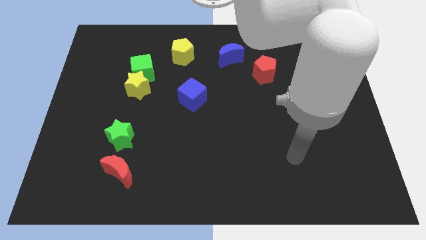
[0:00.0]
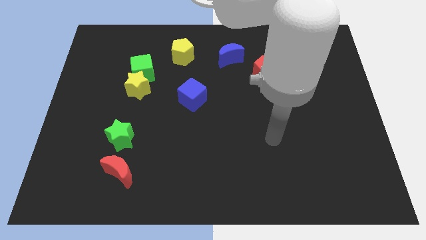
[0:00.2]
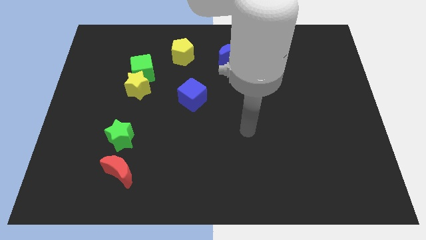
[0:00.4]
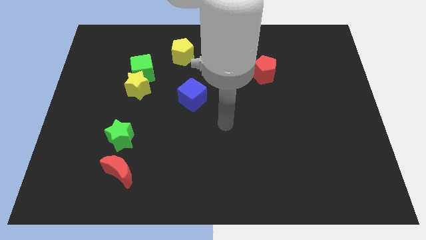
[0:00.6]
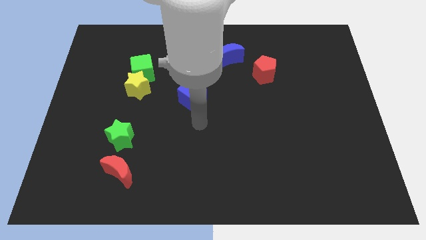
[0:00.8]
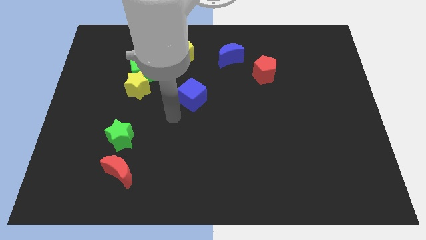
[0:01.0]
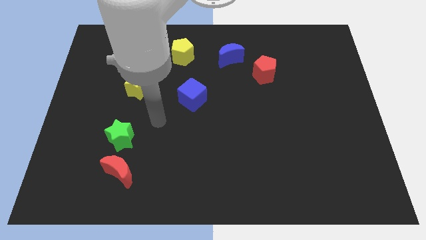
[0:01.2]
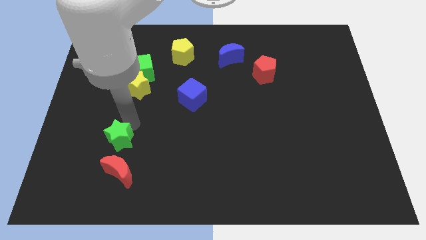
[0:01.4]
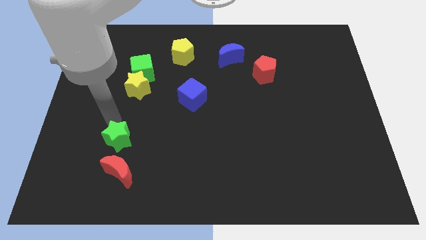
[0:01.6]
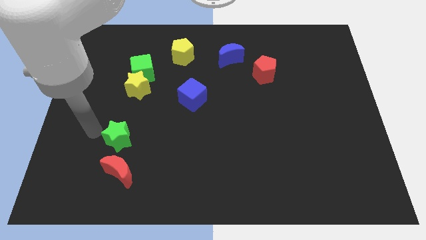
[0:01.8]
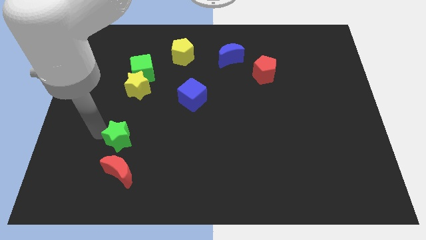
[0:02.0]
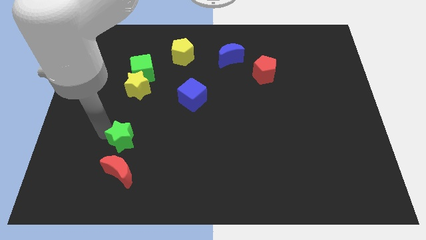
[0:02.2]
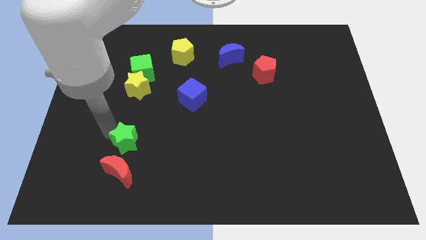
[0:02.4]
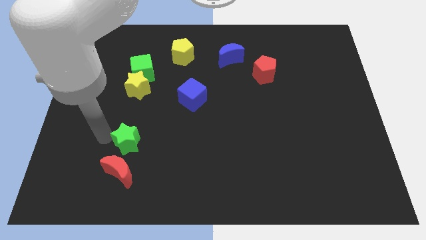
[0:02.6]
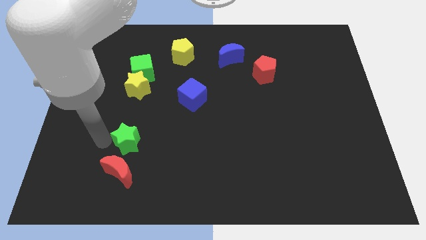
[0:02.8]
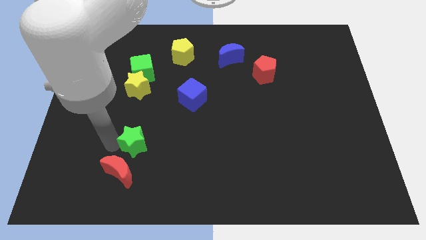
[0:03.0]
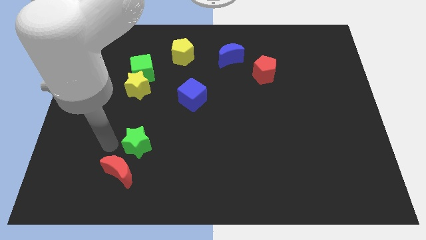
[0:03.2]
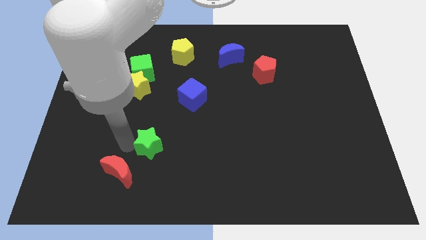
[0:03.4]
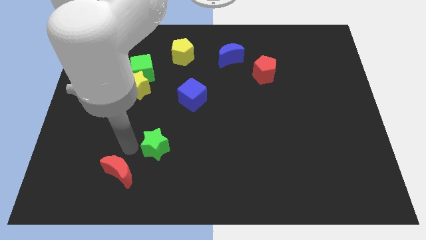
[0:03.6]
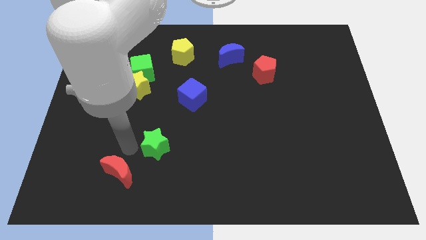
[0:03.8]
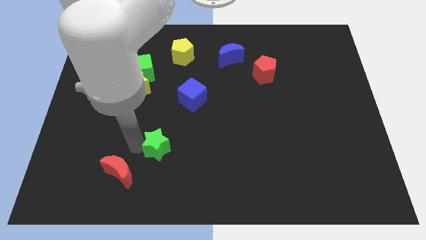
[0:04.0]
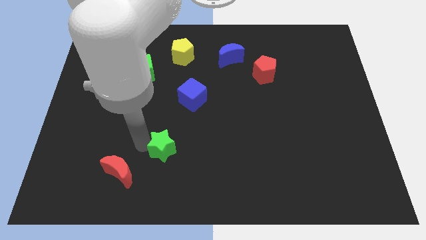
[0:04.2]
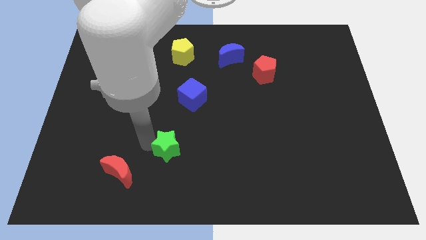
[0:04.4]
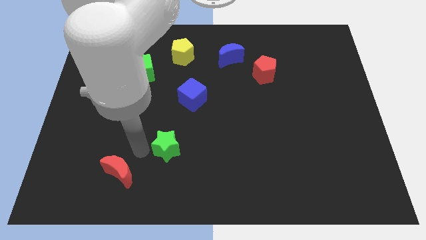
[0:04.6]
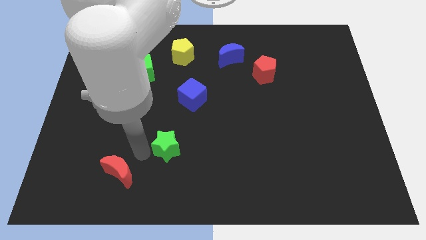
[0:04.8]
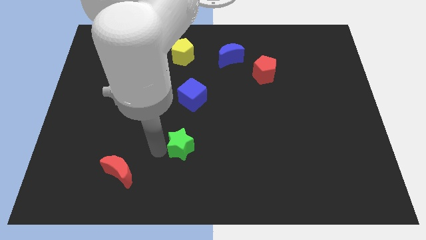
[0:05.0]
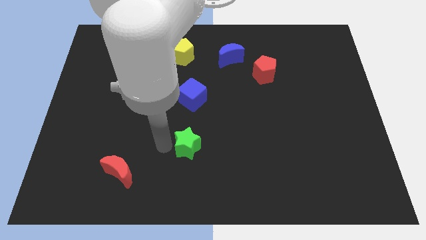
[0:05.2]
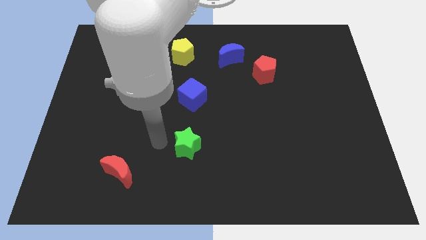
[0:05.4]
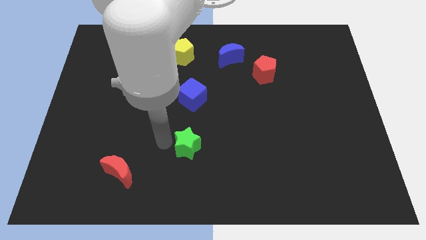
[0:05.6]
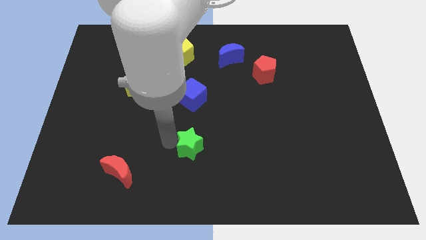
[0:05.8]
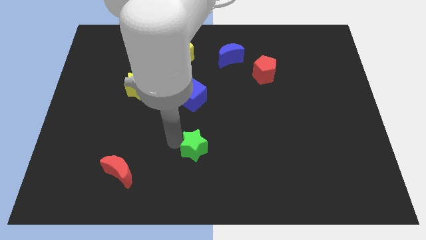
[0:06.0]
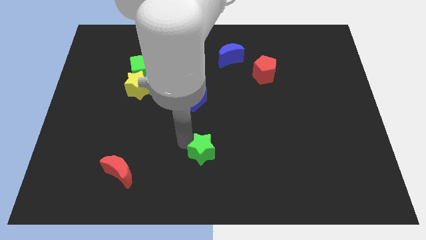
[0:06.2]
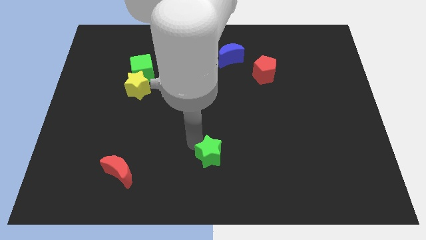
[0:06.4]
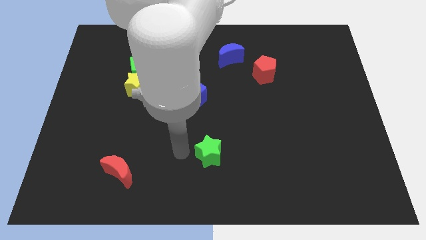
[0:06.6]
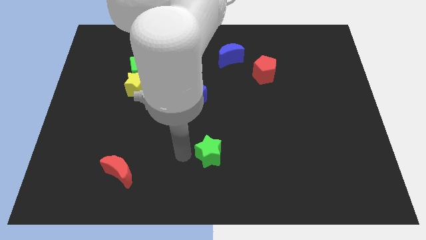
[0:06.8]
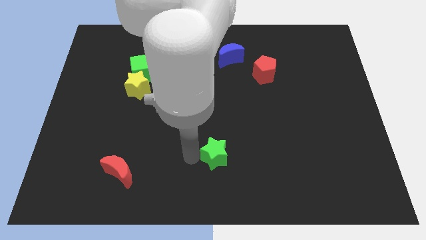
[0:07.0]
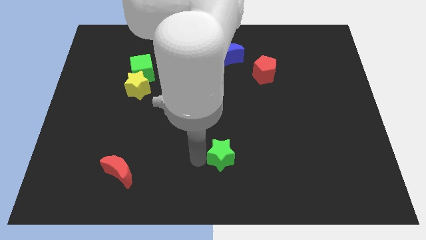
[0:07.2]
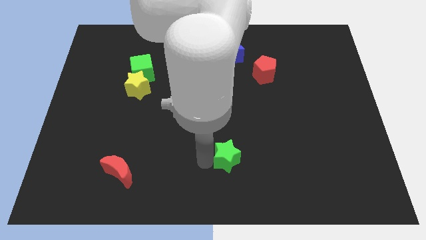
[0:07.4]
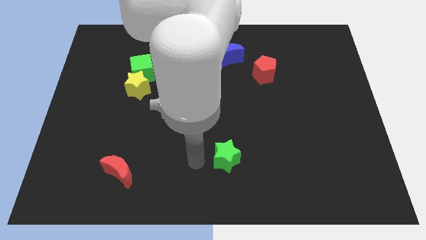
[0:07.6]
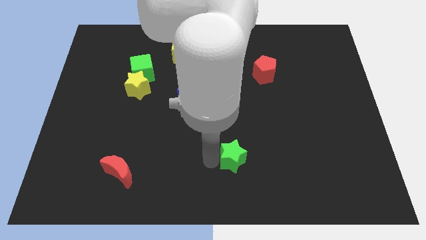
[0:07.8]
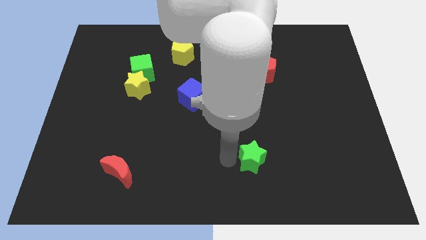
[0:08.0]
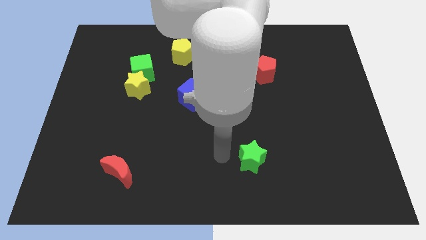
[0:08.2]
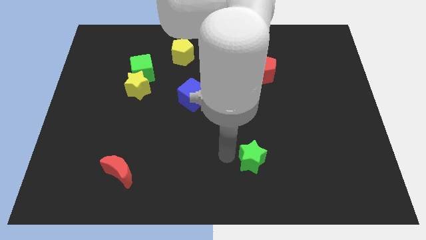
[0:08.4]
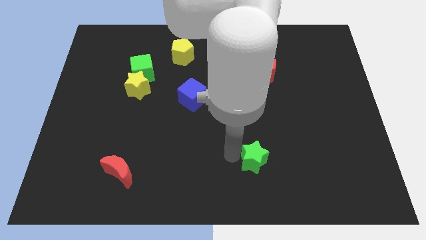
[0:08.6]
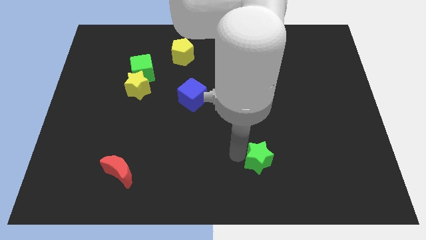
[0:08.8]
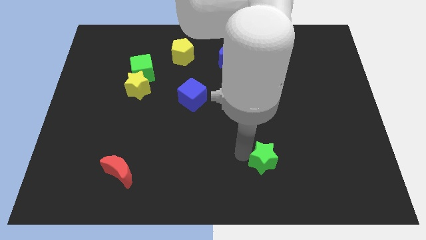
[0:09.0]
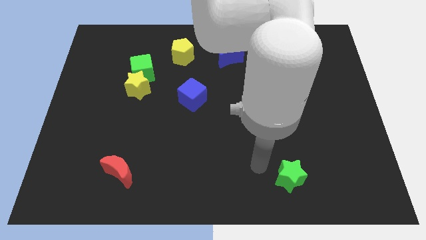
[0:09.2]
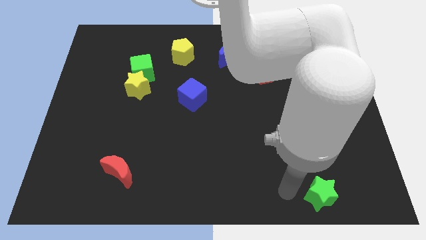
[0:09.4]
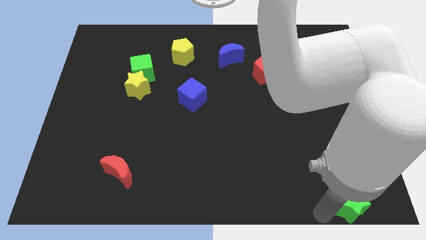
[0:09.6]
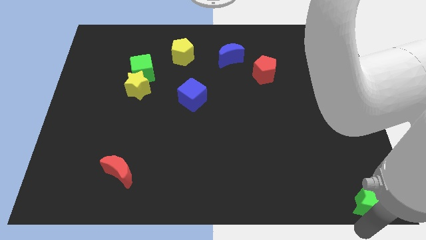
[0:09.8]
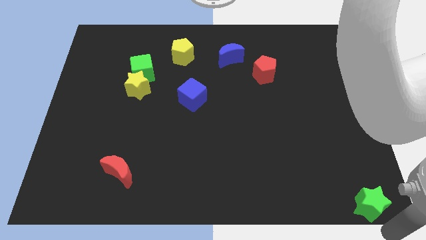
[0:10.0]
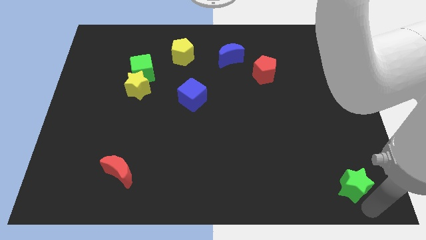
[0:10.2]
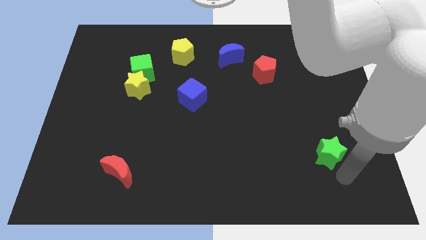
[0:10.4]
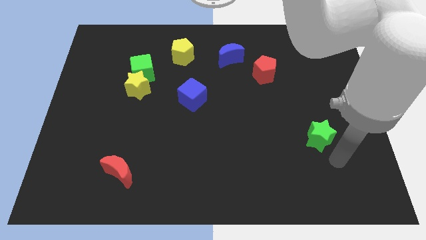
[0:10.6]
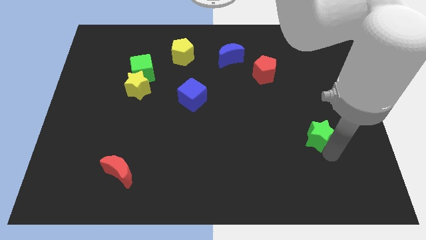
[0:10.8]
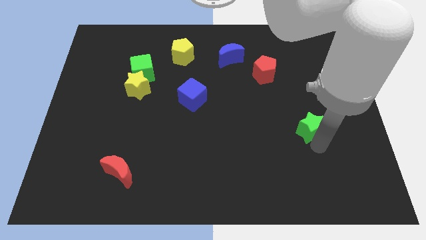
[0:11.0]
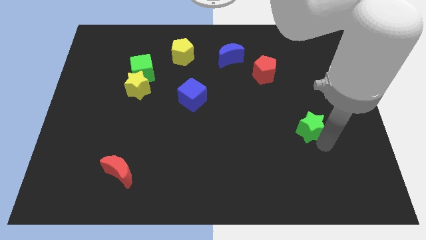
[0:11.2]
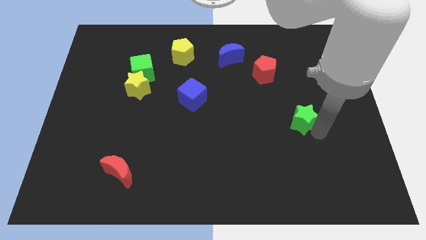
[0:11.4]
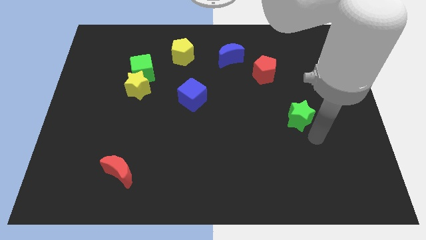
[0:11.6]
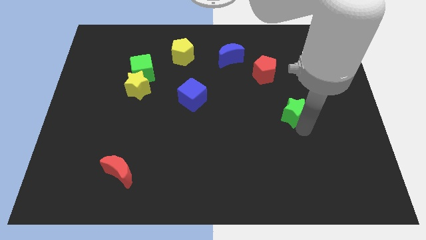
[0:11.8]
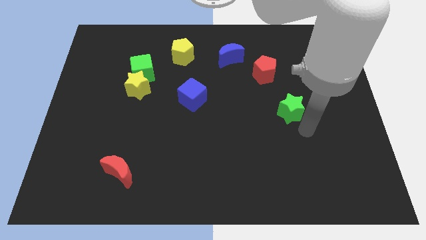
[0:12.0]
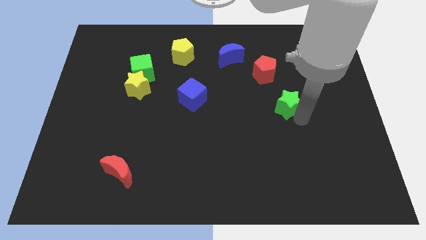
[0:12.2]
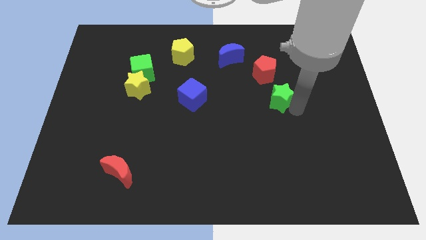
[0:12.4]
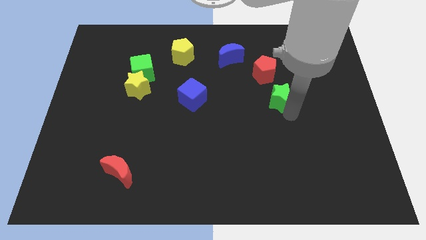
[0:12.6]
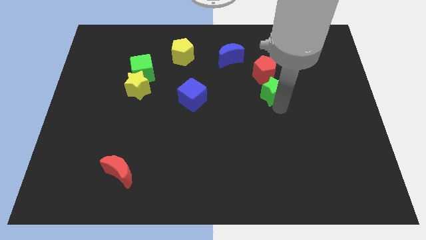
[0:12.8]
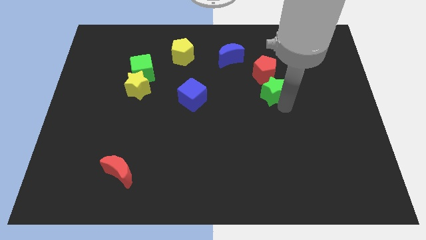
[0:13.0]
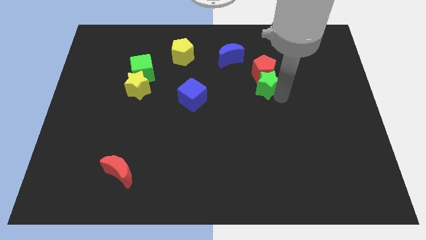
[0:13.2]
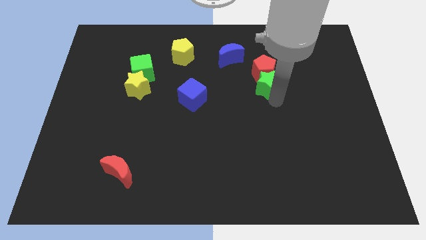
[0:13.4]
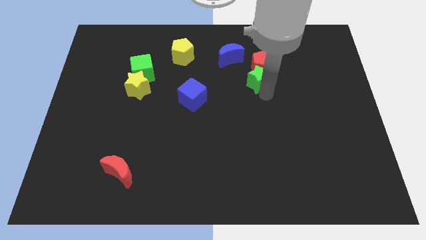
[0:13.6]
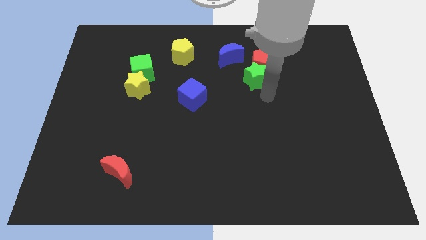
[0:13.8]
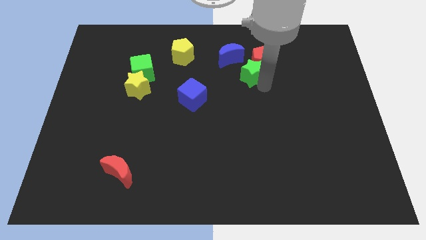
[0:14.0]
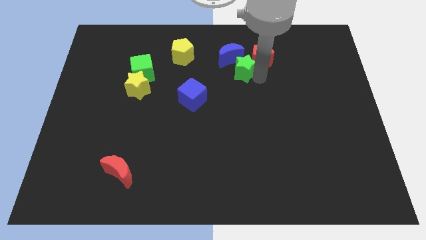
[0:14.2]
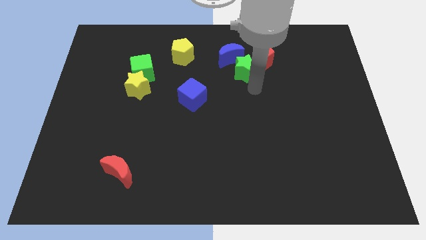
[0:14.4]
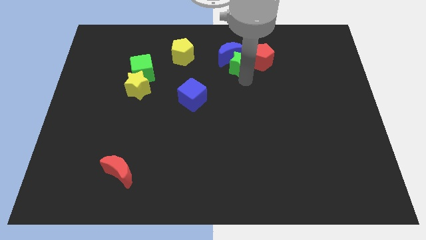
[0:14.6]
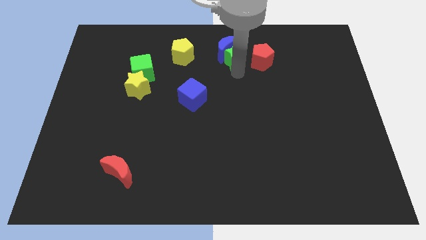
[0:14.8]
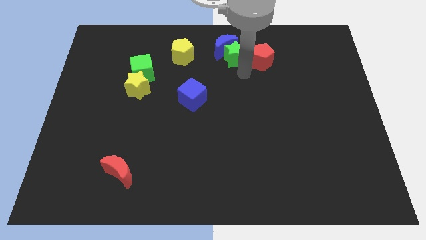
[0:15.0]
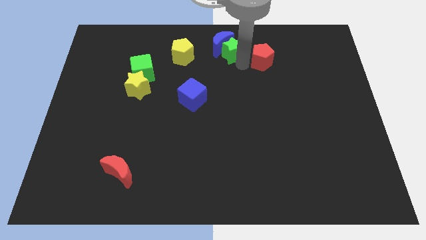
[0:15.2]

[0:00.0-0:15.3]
slide the green star to the top
